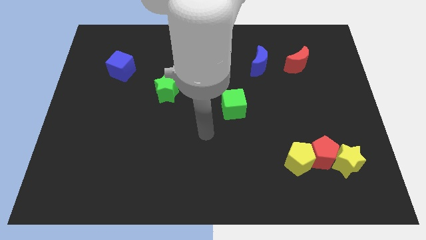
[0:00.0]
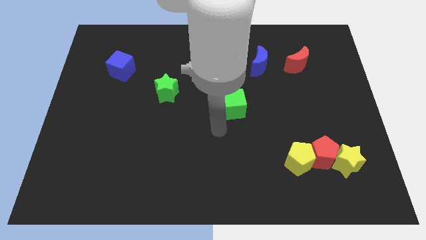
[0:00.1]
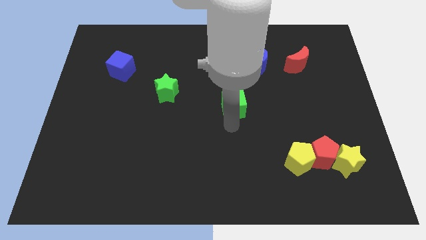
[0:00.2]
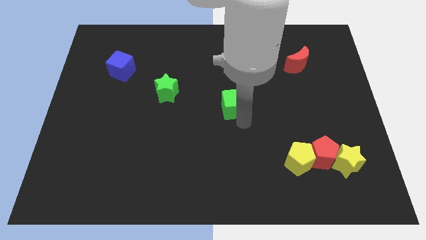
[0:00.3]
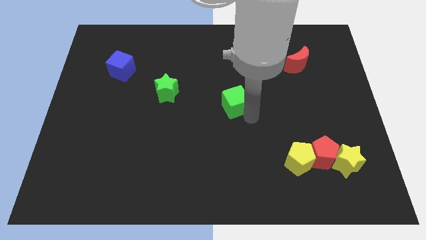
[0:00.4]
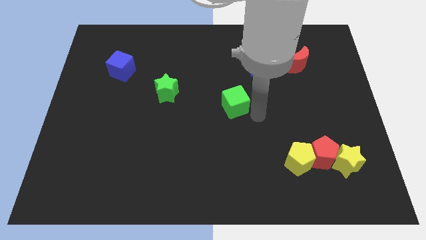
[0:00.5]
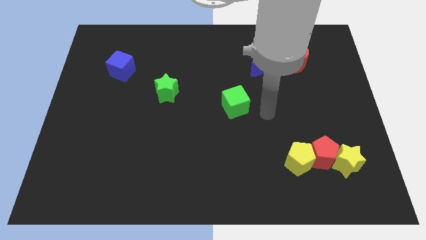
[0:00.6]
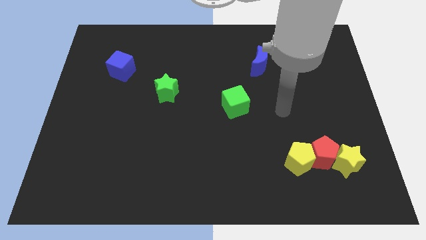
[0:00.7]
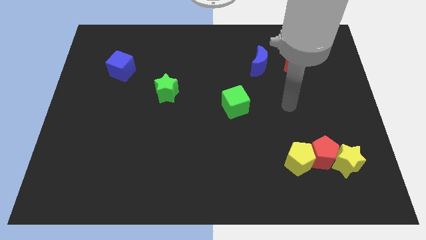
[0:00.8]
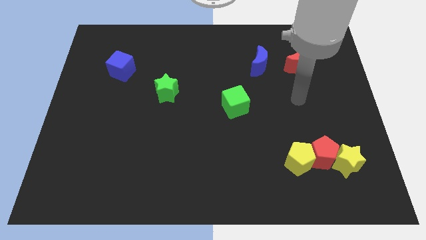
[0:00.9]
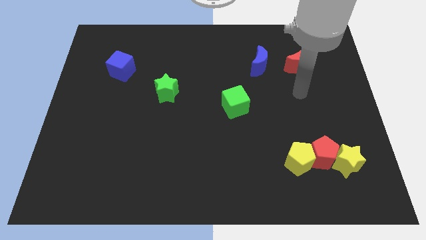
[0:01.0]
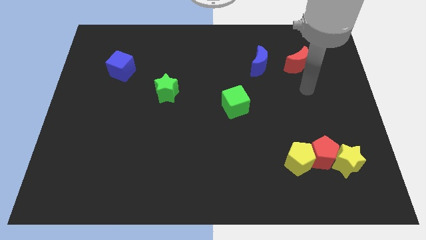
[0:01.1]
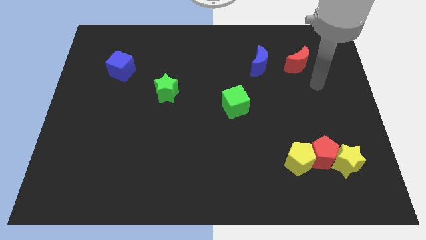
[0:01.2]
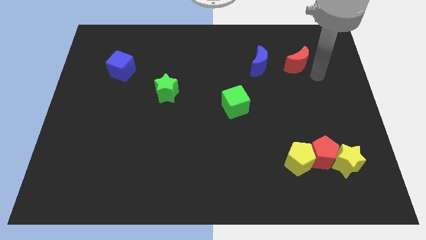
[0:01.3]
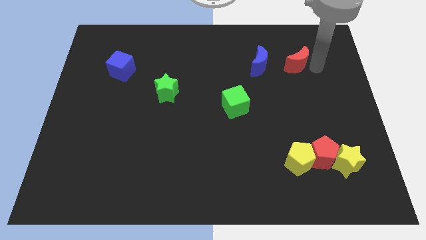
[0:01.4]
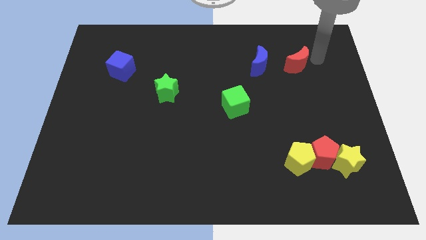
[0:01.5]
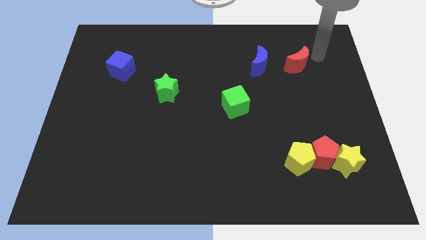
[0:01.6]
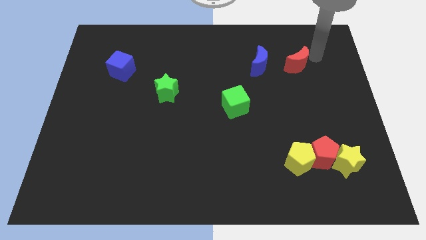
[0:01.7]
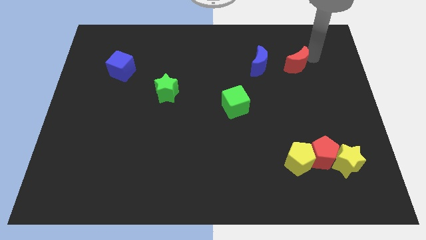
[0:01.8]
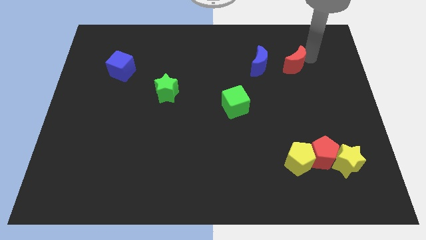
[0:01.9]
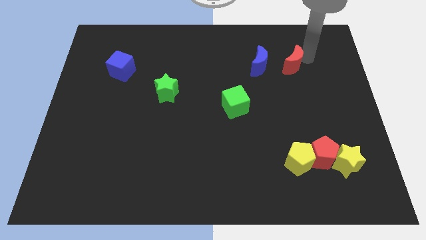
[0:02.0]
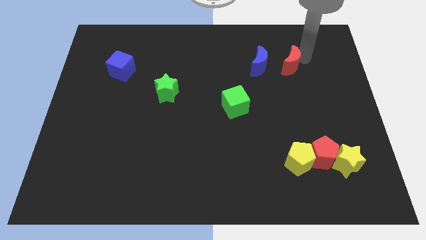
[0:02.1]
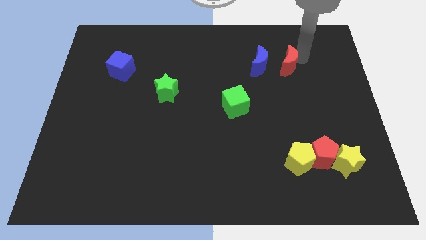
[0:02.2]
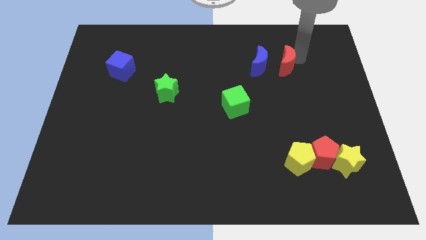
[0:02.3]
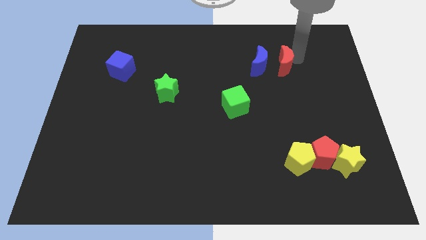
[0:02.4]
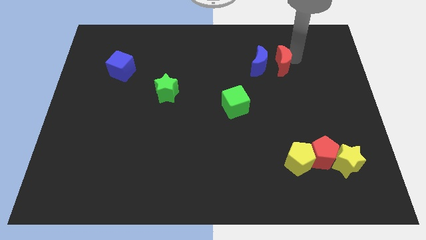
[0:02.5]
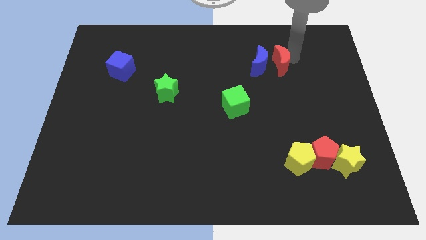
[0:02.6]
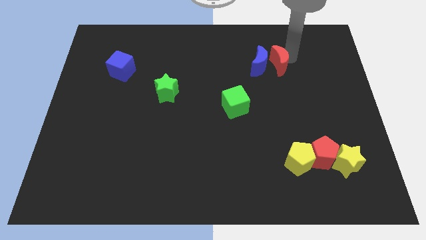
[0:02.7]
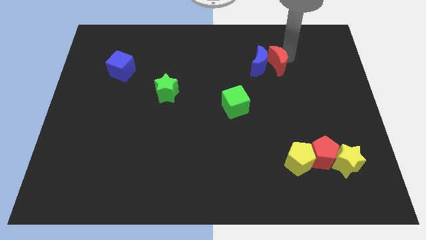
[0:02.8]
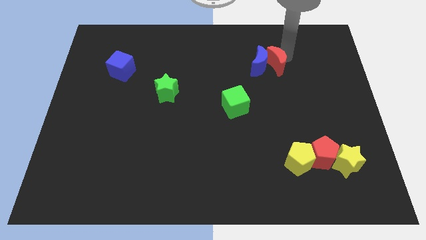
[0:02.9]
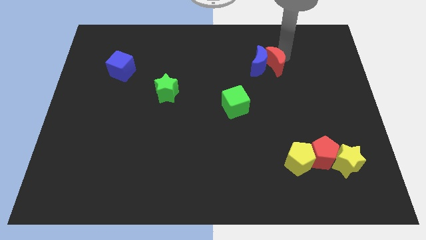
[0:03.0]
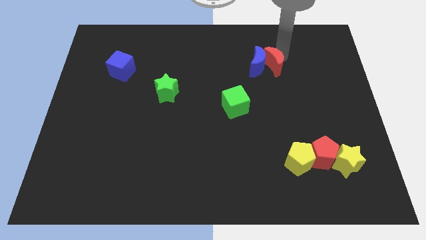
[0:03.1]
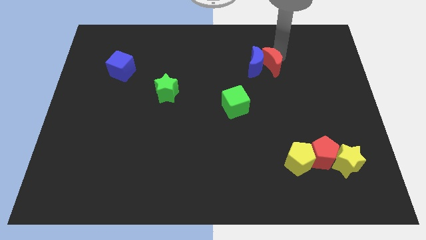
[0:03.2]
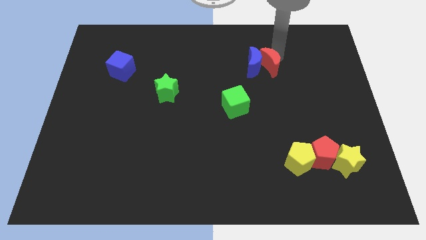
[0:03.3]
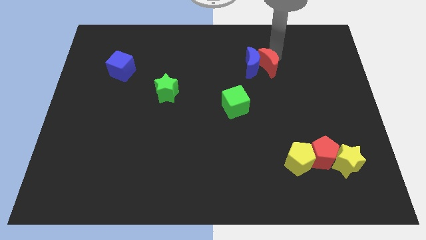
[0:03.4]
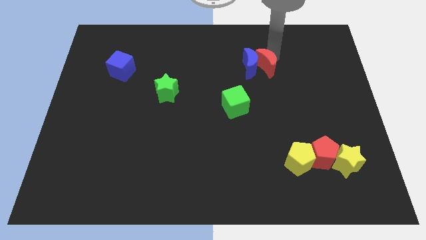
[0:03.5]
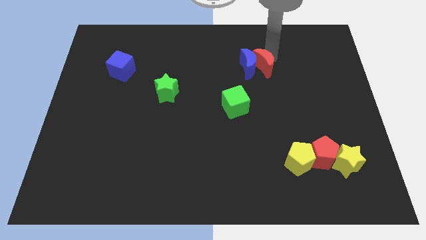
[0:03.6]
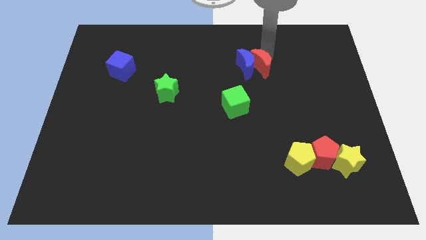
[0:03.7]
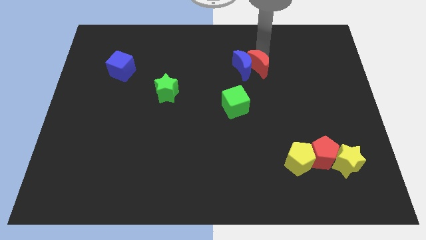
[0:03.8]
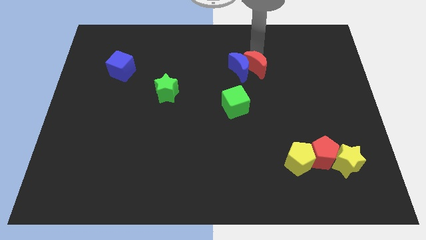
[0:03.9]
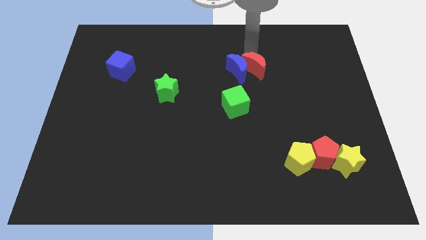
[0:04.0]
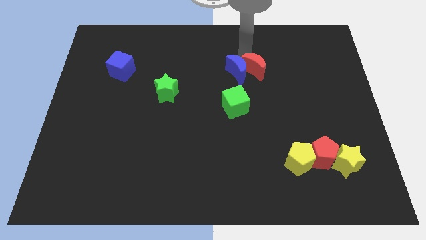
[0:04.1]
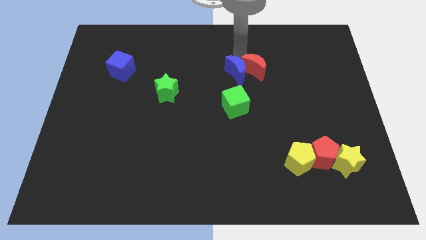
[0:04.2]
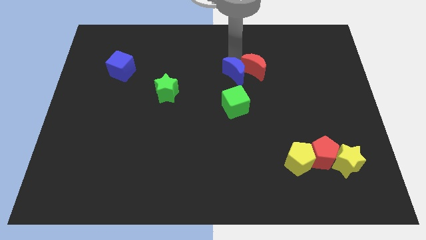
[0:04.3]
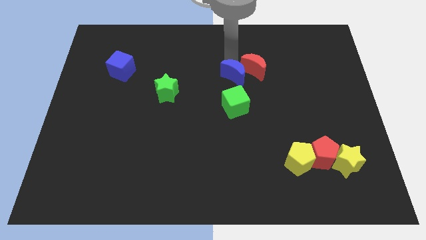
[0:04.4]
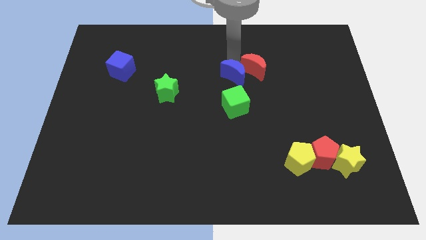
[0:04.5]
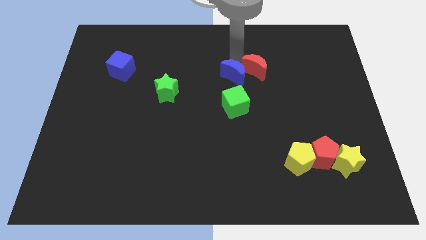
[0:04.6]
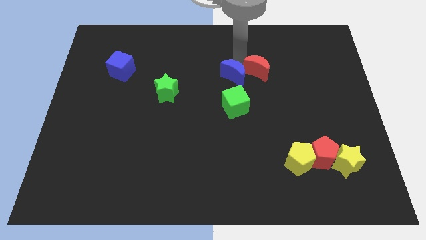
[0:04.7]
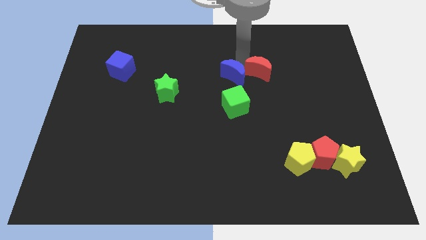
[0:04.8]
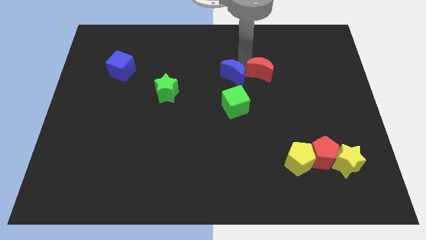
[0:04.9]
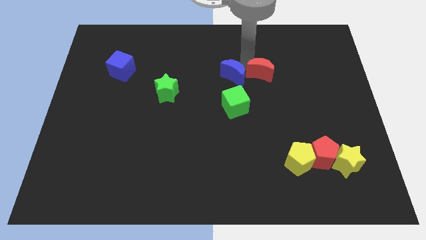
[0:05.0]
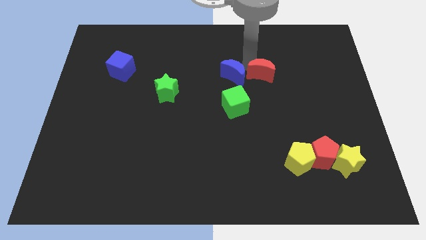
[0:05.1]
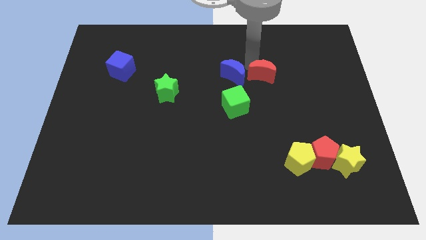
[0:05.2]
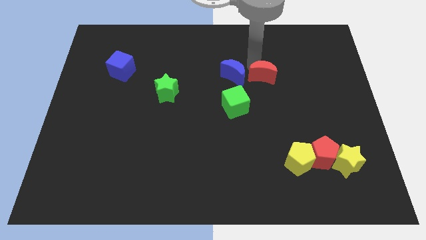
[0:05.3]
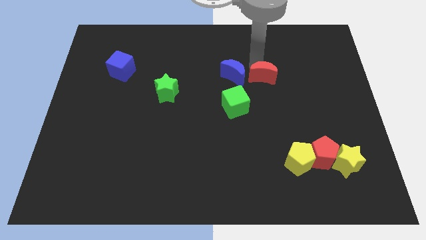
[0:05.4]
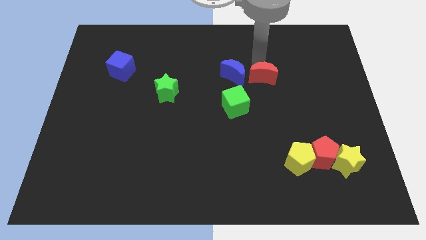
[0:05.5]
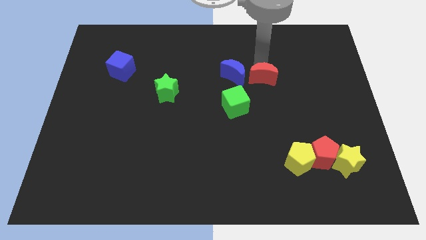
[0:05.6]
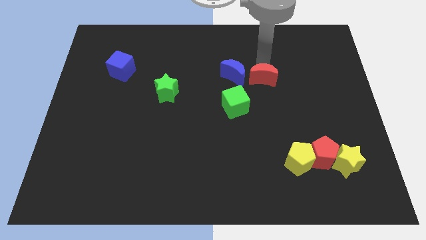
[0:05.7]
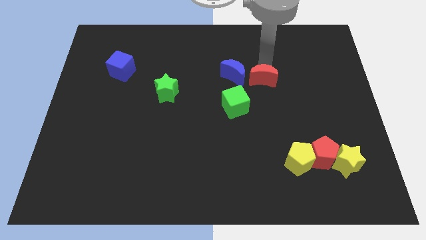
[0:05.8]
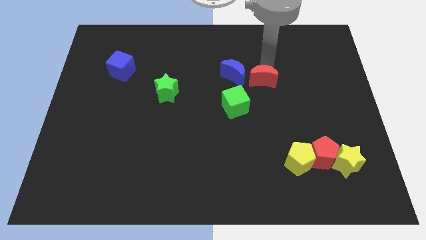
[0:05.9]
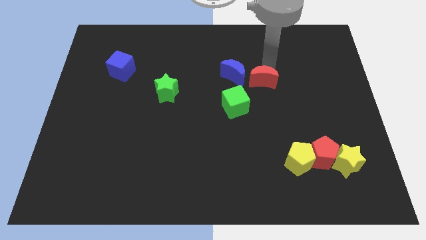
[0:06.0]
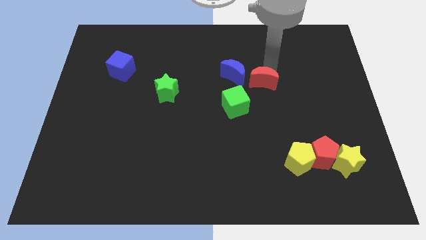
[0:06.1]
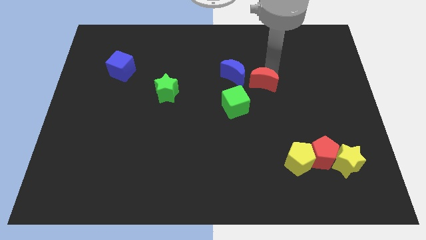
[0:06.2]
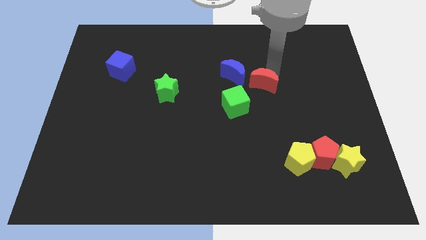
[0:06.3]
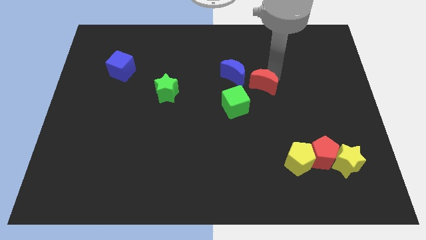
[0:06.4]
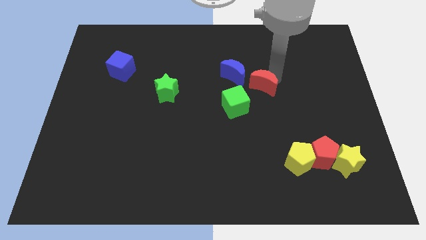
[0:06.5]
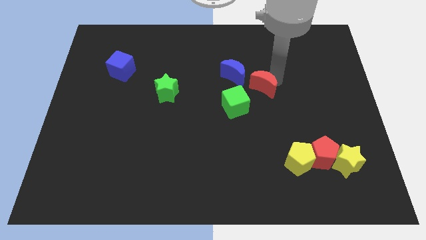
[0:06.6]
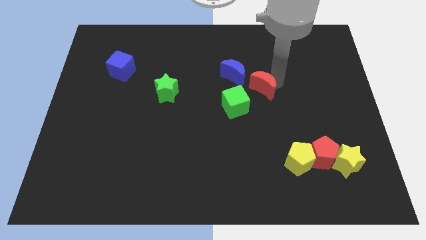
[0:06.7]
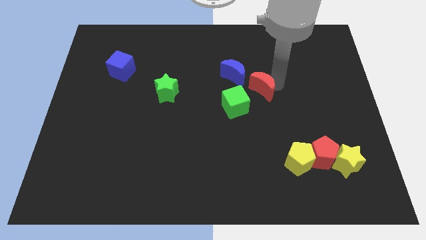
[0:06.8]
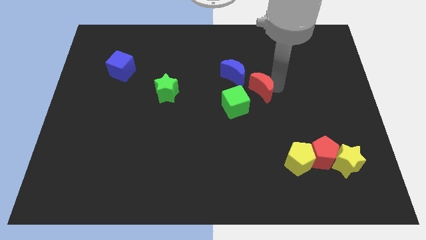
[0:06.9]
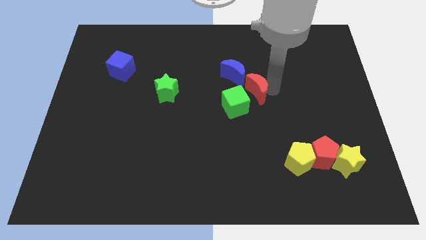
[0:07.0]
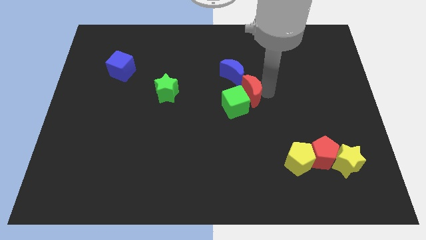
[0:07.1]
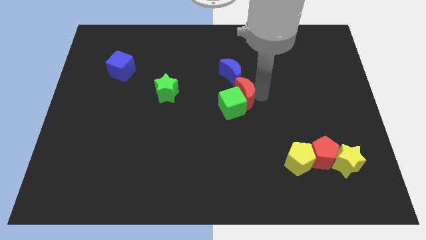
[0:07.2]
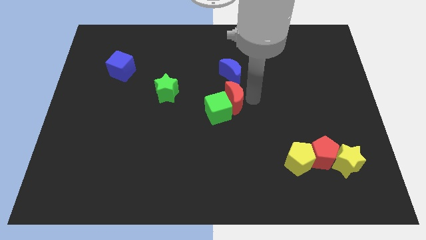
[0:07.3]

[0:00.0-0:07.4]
move the red moon down and to the left

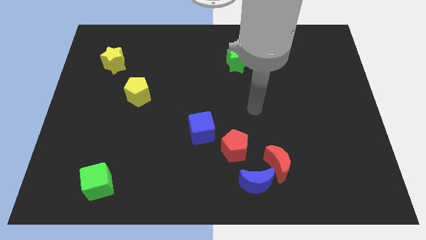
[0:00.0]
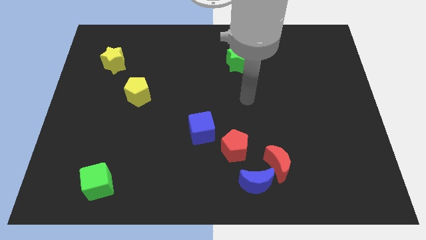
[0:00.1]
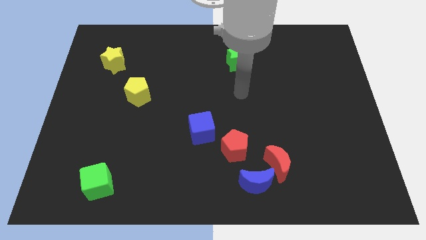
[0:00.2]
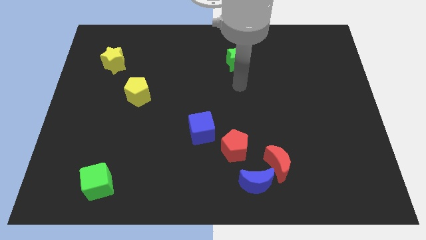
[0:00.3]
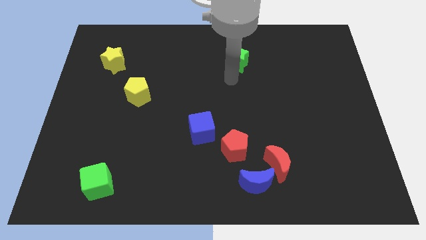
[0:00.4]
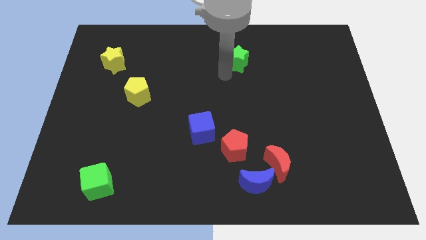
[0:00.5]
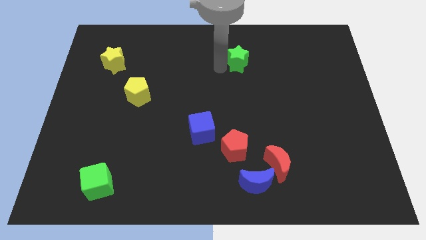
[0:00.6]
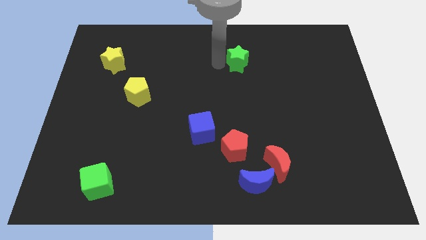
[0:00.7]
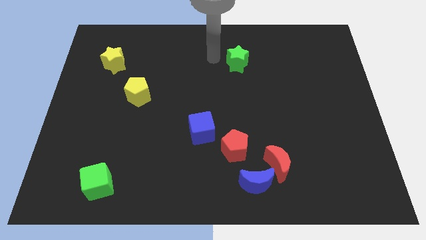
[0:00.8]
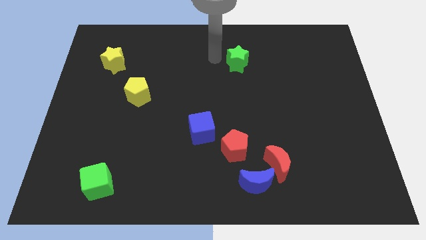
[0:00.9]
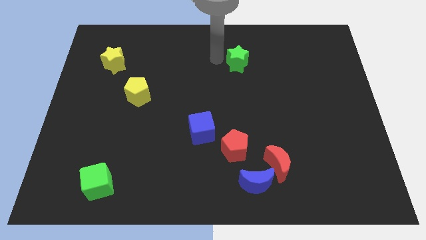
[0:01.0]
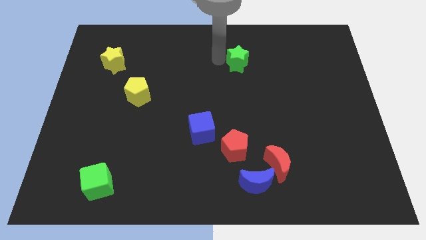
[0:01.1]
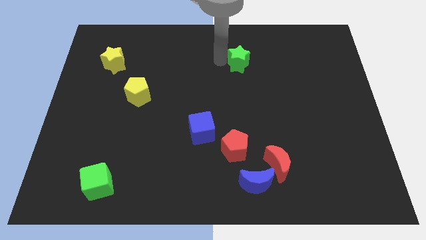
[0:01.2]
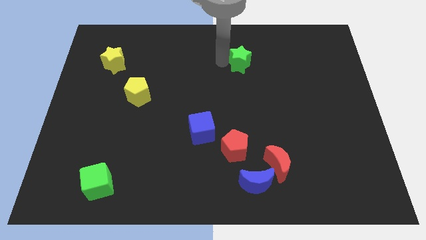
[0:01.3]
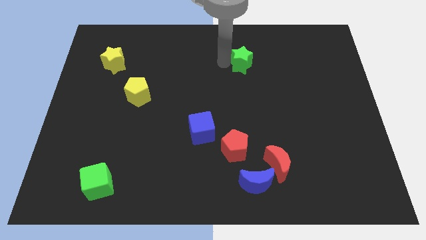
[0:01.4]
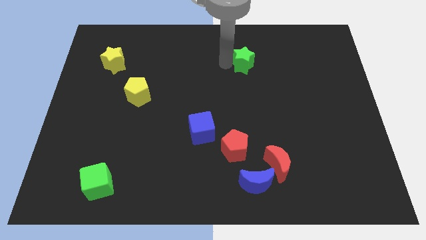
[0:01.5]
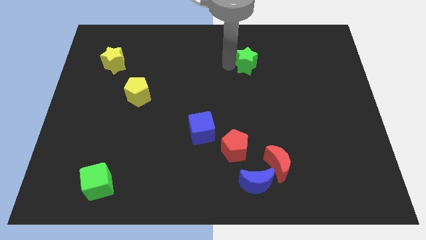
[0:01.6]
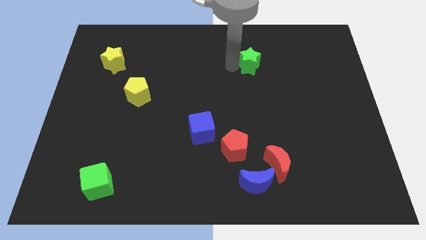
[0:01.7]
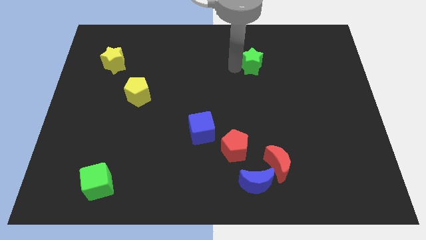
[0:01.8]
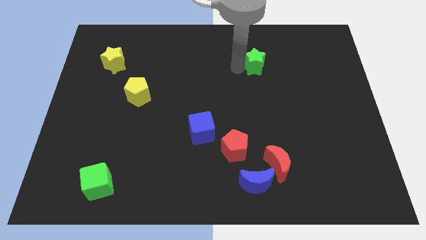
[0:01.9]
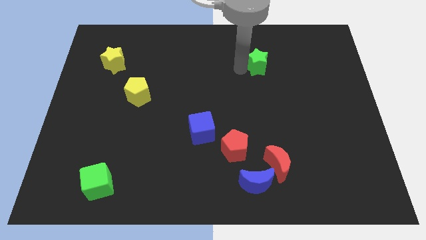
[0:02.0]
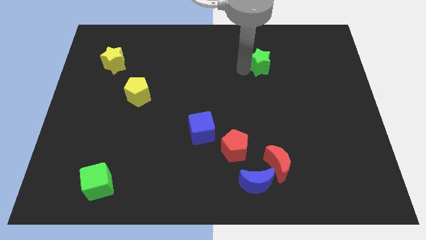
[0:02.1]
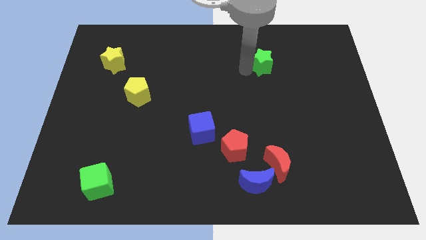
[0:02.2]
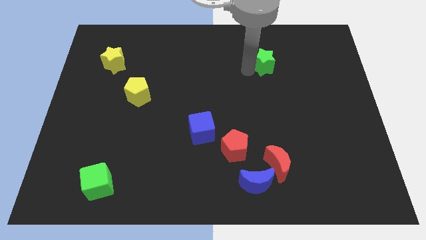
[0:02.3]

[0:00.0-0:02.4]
push the green star a little bit right
